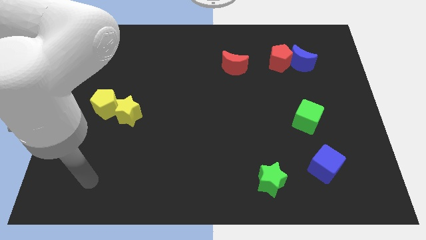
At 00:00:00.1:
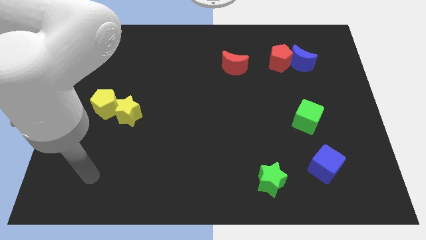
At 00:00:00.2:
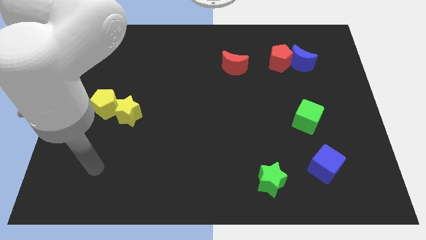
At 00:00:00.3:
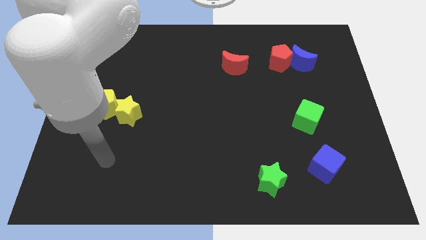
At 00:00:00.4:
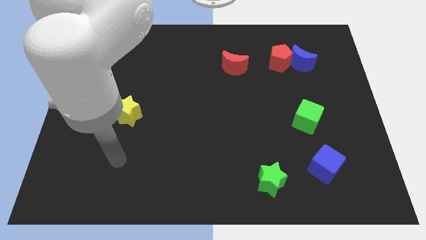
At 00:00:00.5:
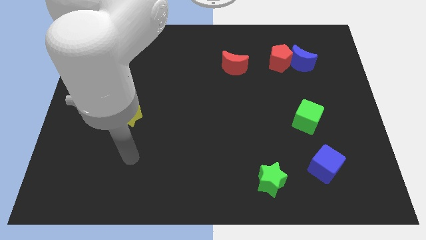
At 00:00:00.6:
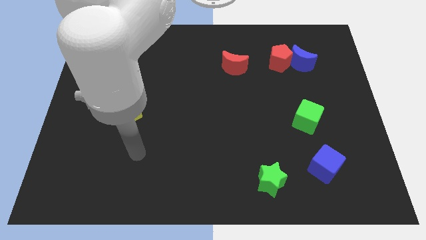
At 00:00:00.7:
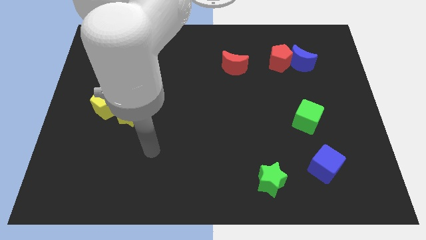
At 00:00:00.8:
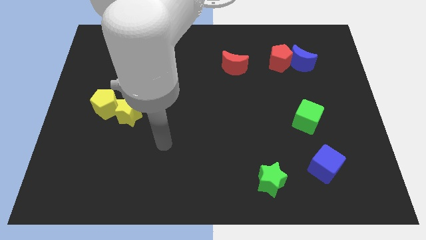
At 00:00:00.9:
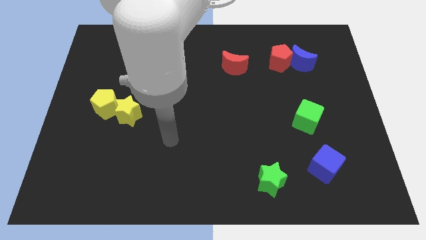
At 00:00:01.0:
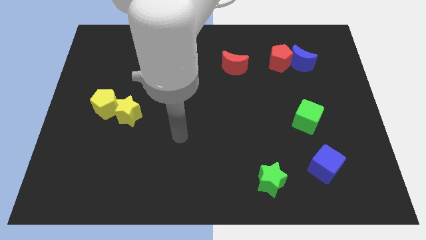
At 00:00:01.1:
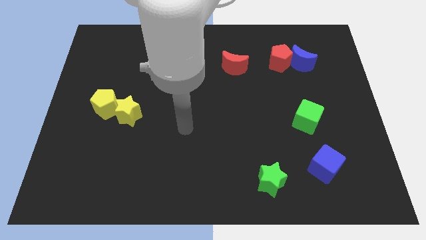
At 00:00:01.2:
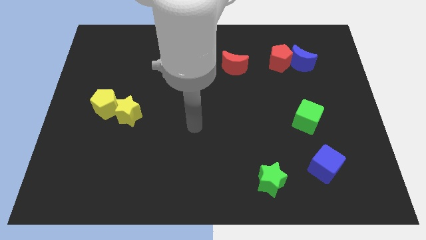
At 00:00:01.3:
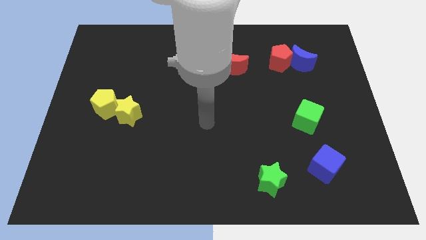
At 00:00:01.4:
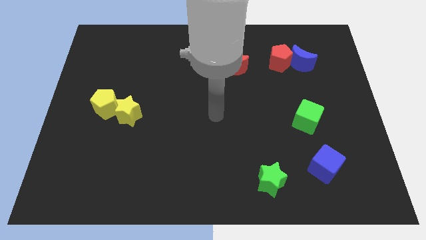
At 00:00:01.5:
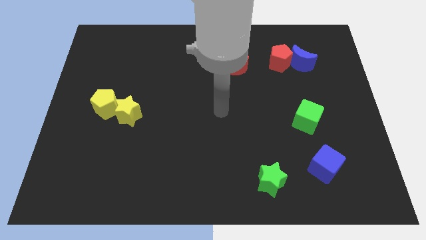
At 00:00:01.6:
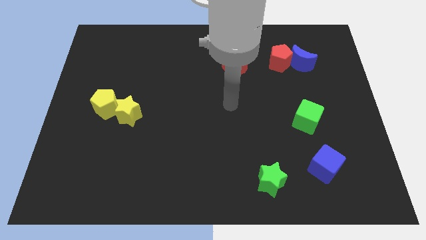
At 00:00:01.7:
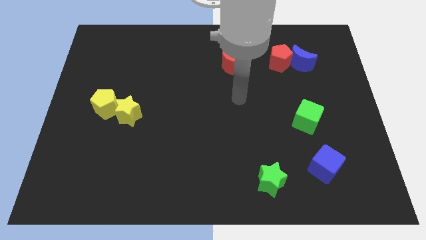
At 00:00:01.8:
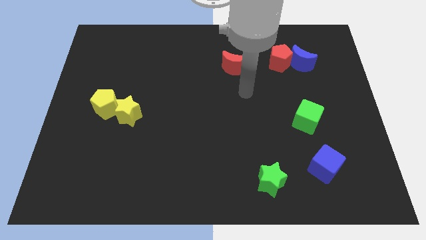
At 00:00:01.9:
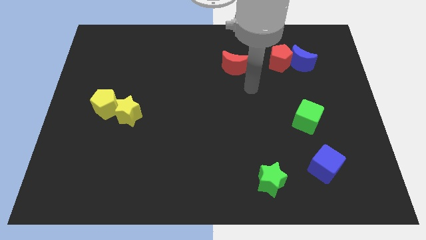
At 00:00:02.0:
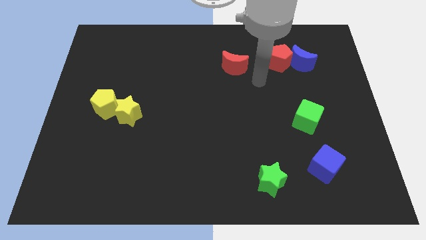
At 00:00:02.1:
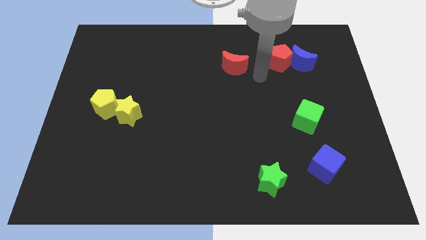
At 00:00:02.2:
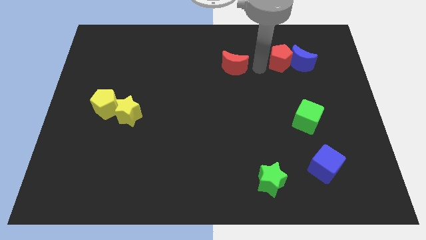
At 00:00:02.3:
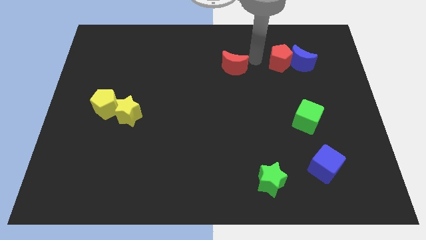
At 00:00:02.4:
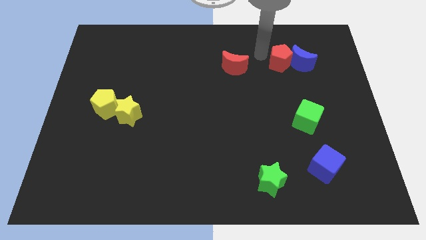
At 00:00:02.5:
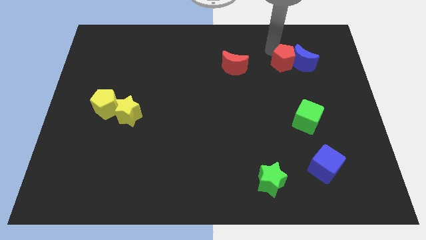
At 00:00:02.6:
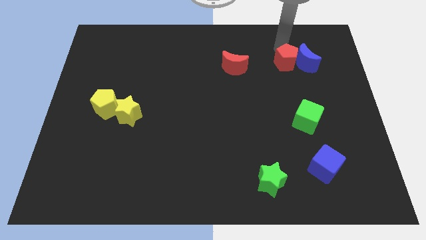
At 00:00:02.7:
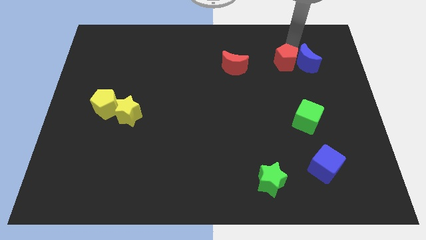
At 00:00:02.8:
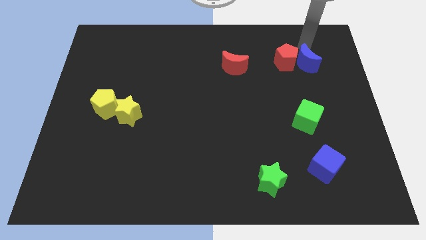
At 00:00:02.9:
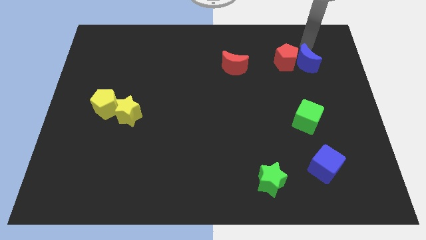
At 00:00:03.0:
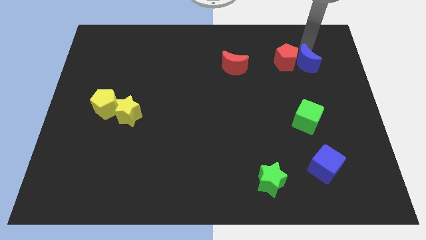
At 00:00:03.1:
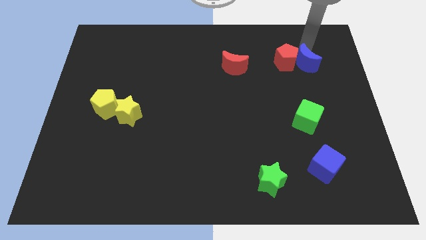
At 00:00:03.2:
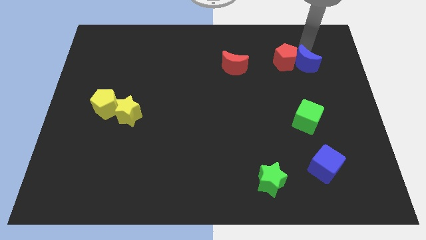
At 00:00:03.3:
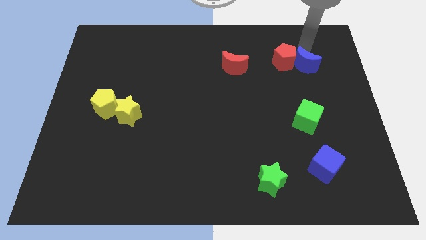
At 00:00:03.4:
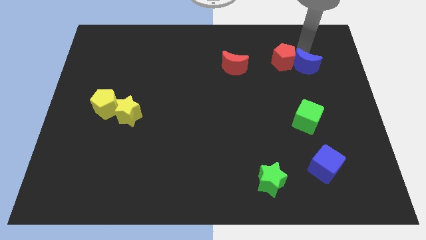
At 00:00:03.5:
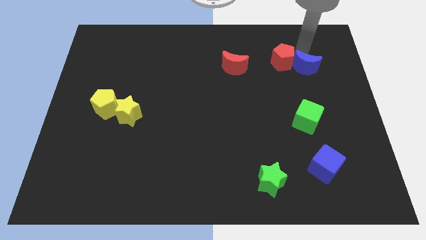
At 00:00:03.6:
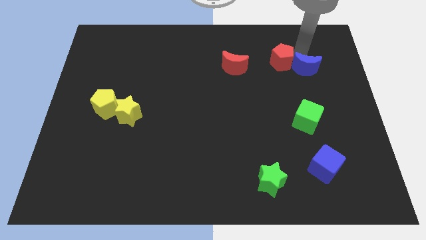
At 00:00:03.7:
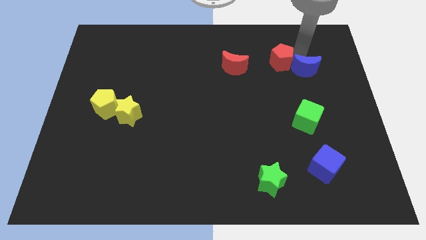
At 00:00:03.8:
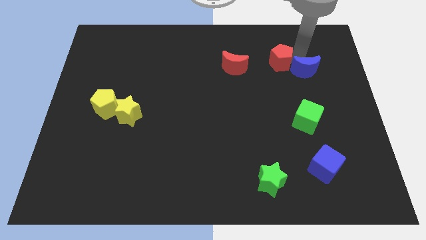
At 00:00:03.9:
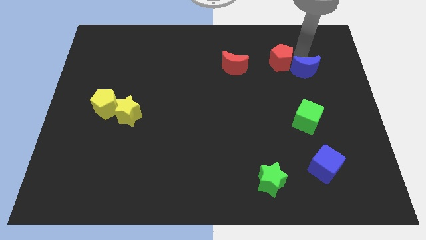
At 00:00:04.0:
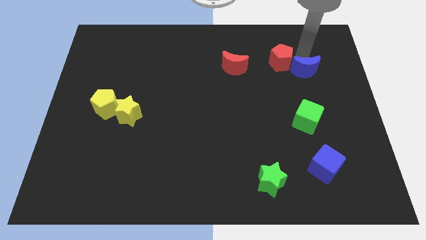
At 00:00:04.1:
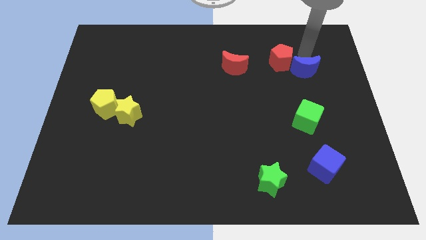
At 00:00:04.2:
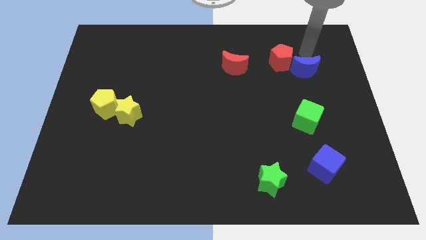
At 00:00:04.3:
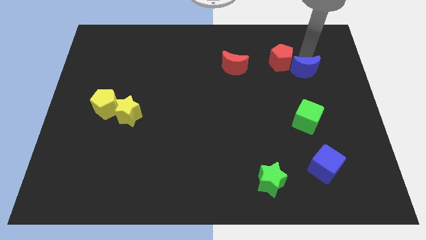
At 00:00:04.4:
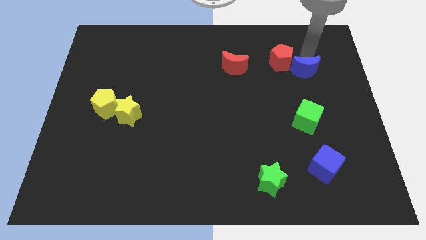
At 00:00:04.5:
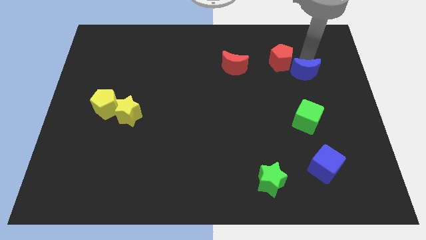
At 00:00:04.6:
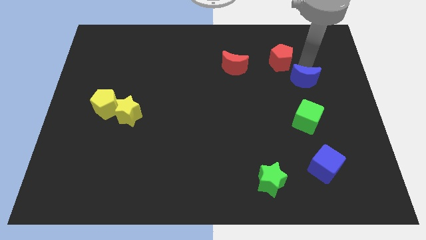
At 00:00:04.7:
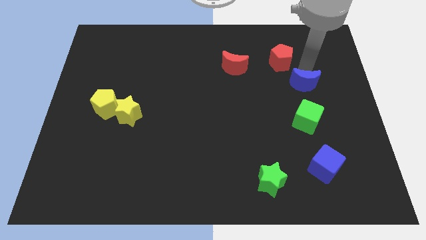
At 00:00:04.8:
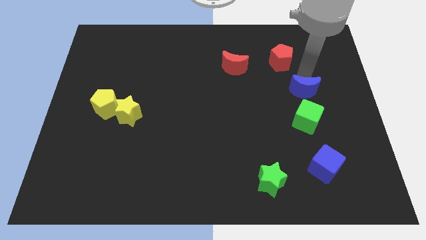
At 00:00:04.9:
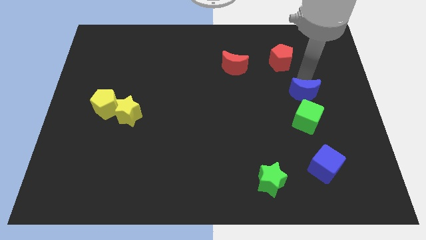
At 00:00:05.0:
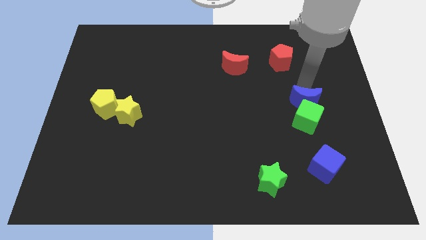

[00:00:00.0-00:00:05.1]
push the blue moon to the green cube

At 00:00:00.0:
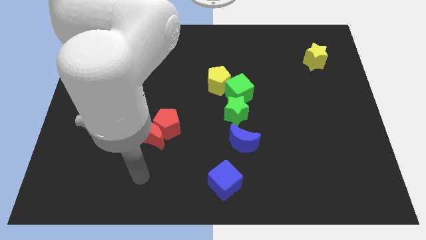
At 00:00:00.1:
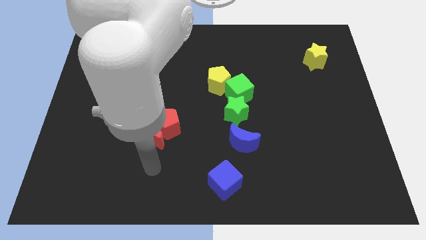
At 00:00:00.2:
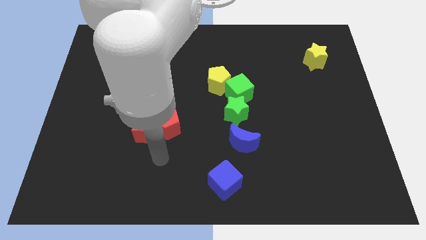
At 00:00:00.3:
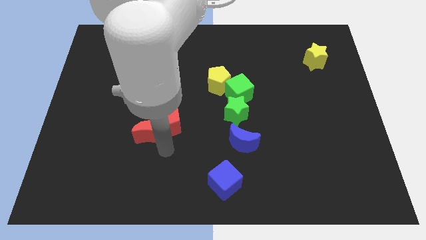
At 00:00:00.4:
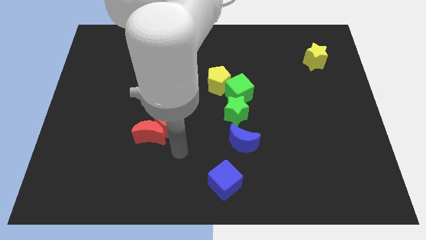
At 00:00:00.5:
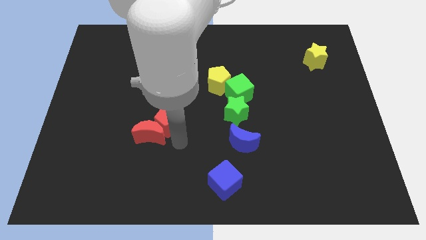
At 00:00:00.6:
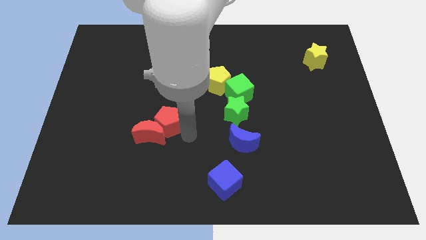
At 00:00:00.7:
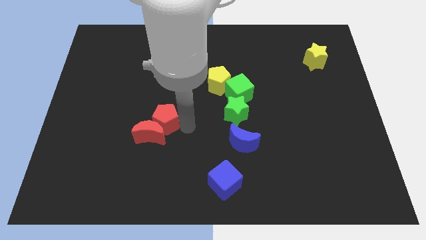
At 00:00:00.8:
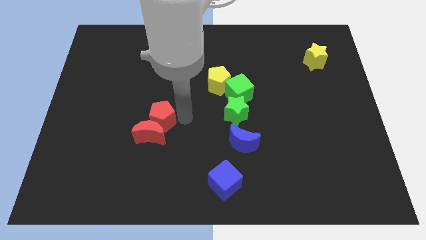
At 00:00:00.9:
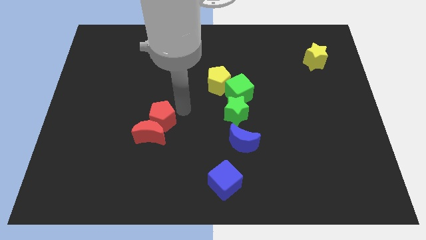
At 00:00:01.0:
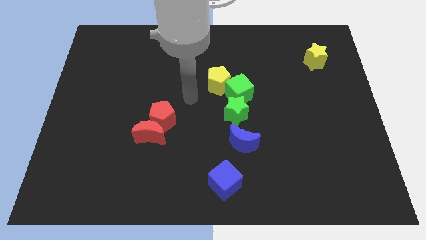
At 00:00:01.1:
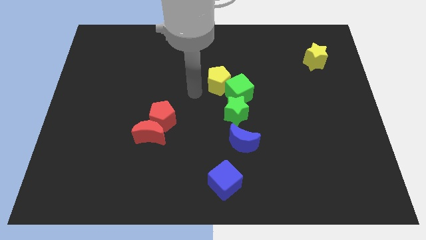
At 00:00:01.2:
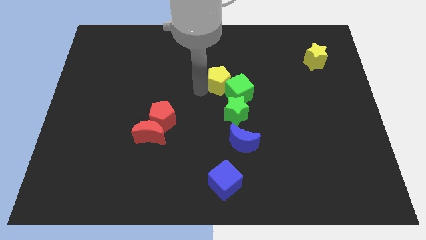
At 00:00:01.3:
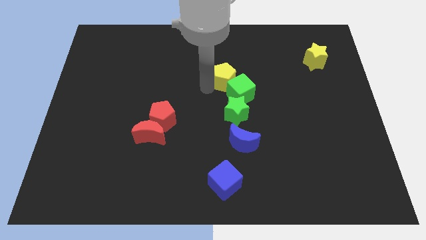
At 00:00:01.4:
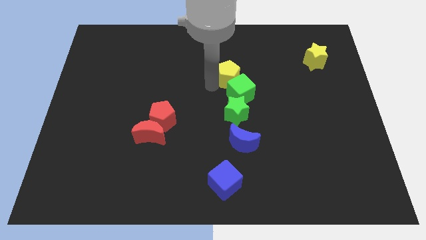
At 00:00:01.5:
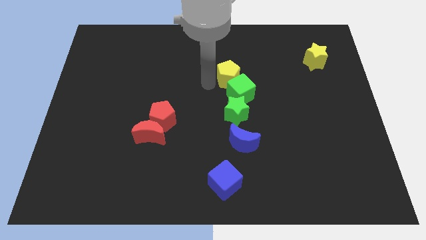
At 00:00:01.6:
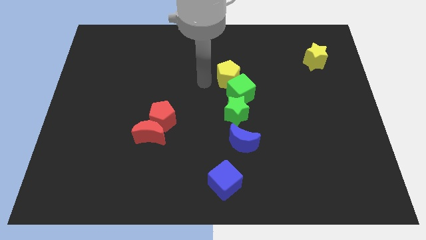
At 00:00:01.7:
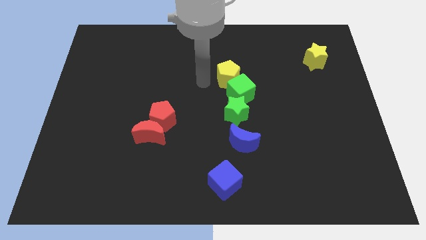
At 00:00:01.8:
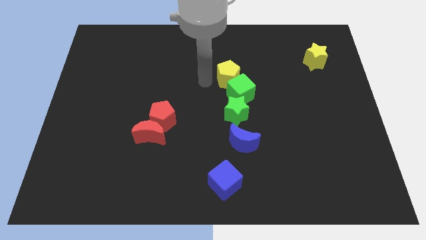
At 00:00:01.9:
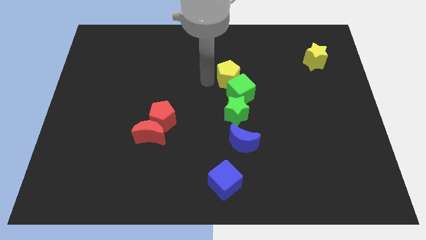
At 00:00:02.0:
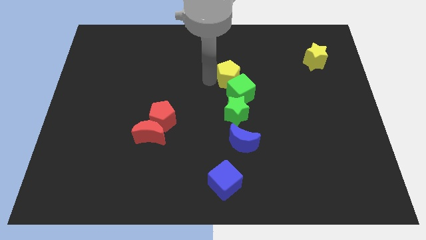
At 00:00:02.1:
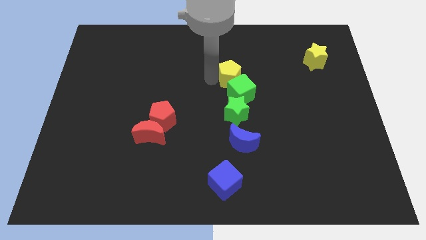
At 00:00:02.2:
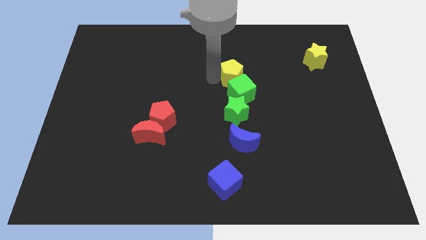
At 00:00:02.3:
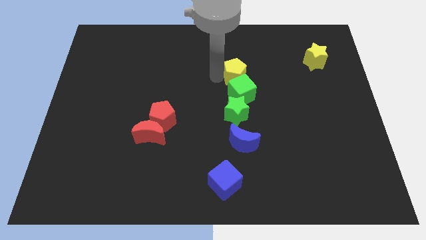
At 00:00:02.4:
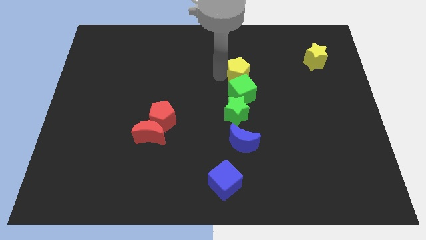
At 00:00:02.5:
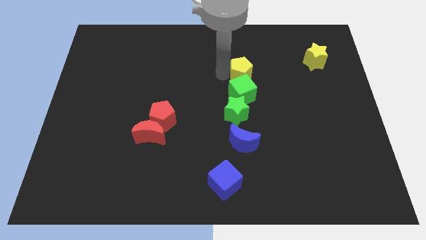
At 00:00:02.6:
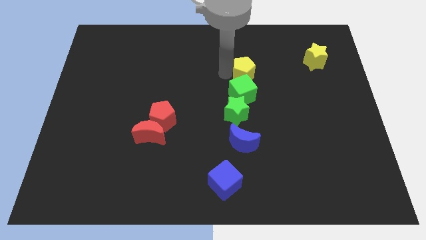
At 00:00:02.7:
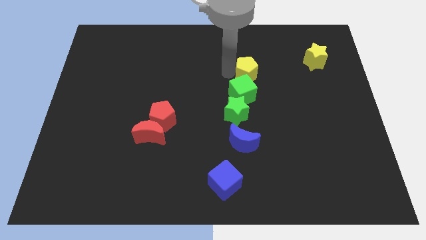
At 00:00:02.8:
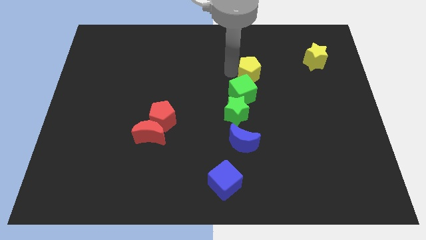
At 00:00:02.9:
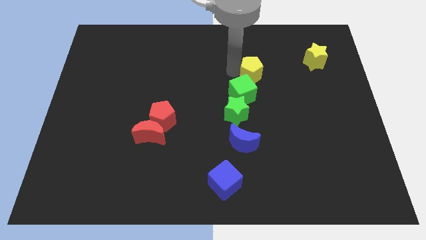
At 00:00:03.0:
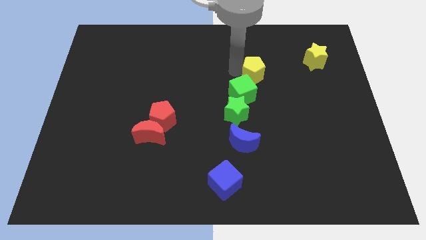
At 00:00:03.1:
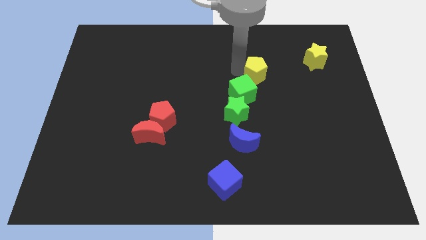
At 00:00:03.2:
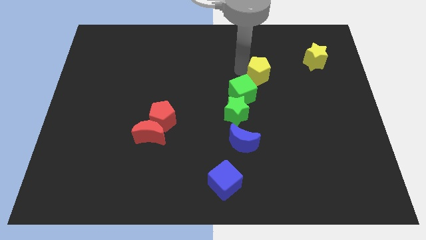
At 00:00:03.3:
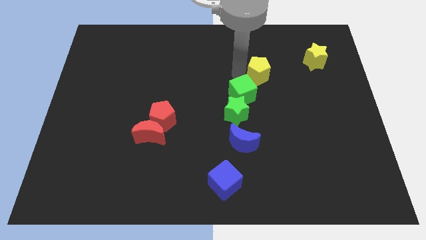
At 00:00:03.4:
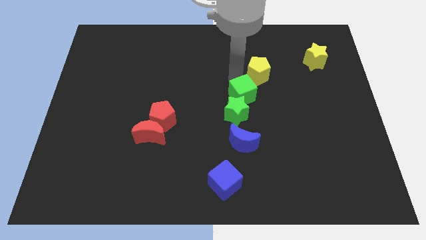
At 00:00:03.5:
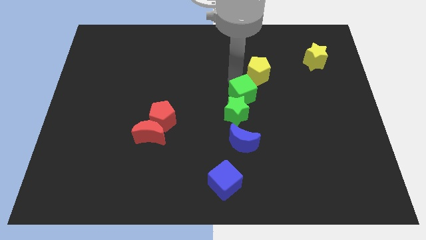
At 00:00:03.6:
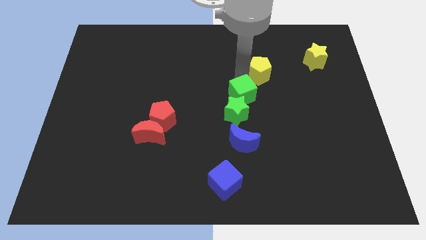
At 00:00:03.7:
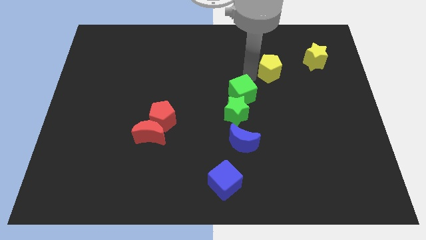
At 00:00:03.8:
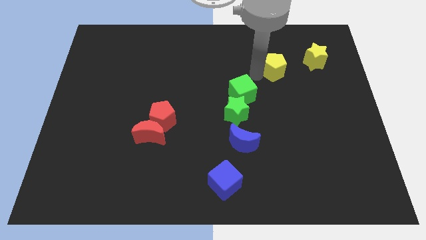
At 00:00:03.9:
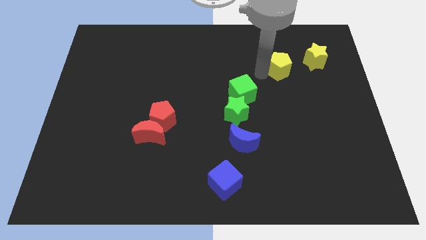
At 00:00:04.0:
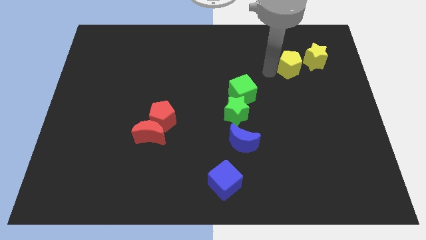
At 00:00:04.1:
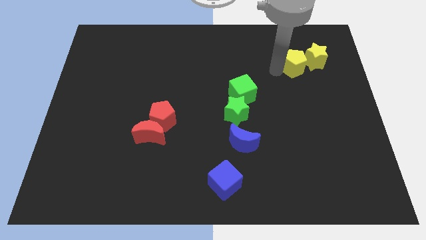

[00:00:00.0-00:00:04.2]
push the yellow pentagon to the yellow star
